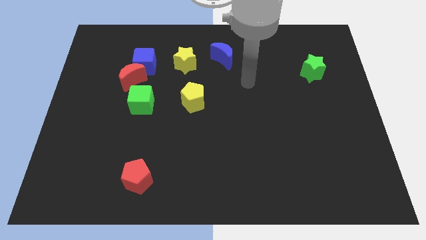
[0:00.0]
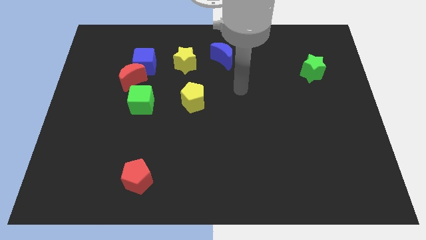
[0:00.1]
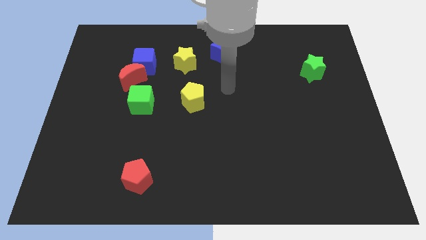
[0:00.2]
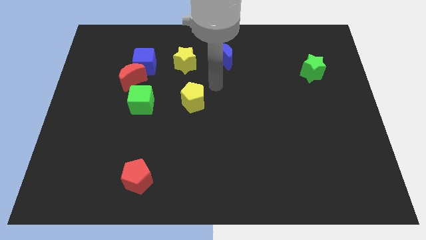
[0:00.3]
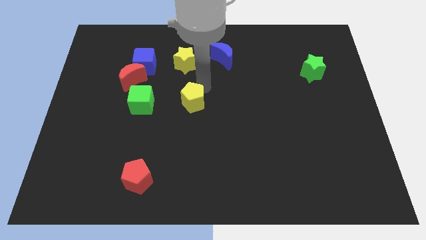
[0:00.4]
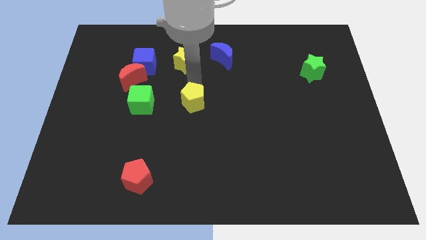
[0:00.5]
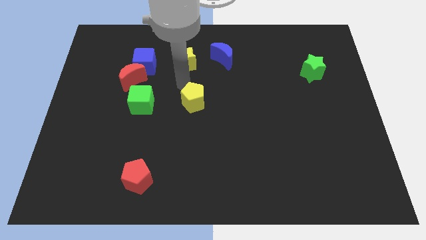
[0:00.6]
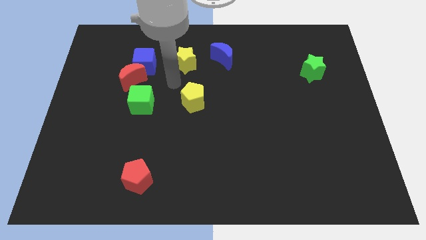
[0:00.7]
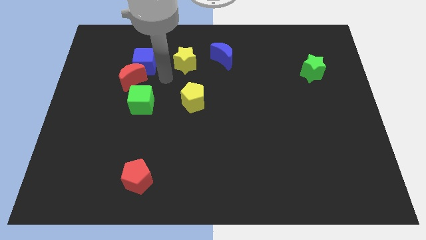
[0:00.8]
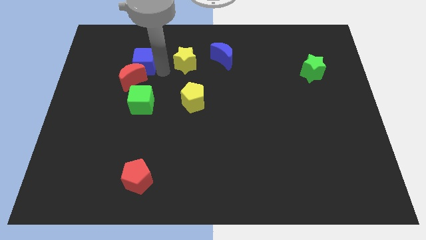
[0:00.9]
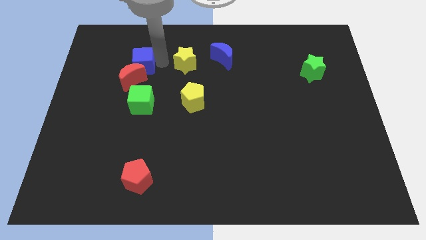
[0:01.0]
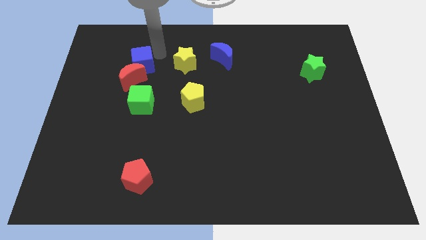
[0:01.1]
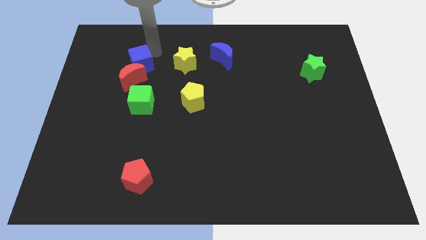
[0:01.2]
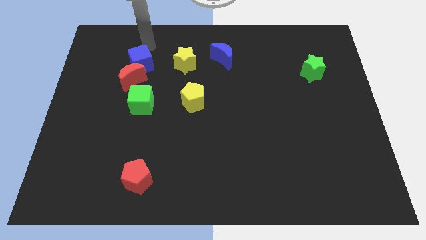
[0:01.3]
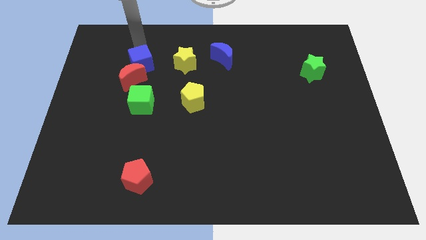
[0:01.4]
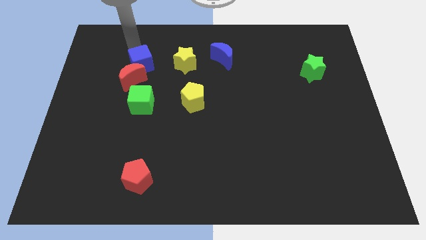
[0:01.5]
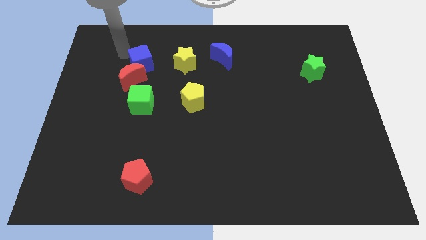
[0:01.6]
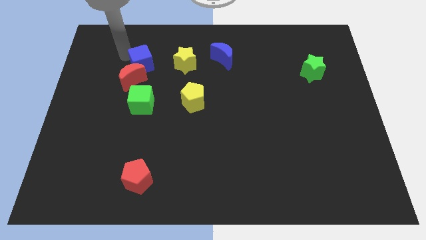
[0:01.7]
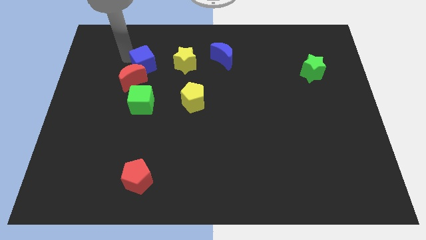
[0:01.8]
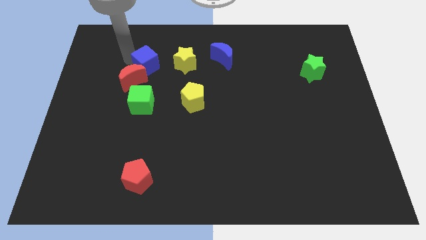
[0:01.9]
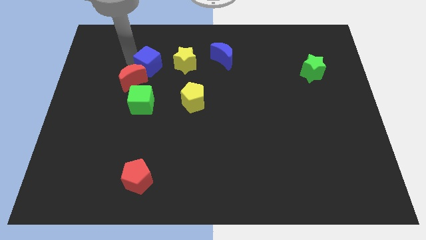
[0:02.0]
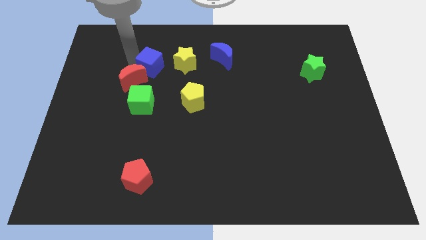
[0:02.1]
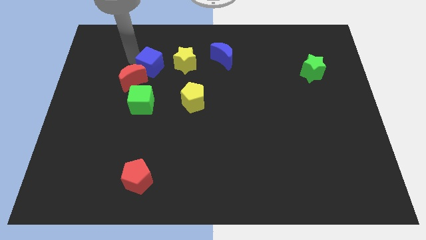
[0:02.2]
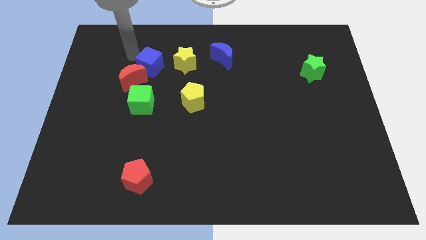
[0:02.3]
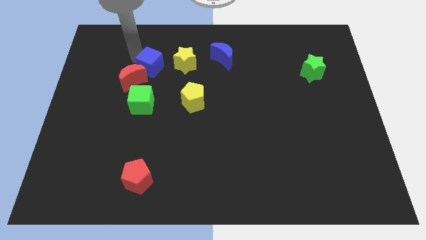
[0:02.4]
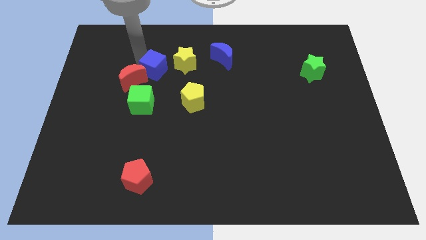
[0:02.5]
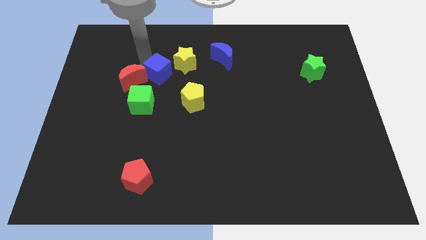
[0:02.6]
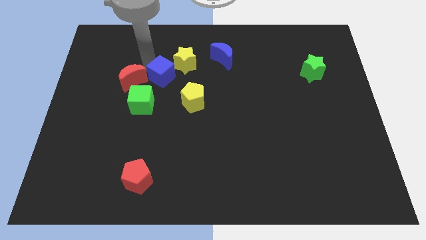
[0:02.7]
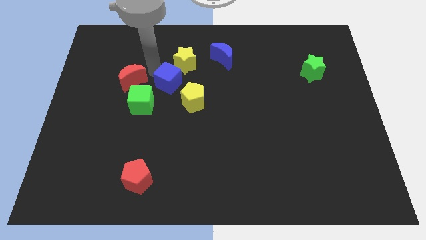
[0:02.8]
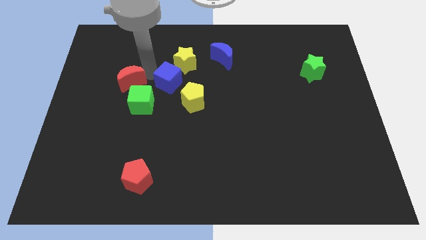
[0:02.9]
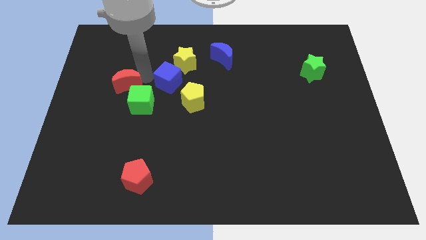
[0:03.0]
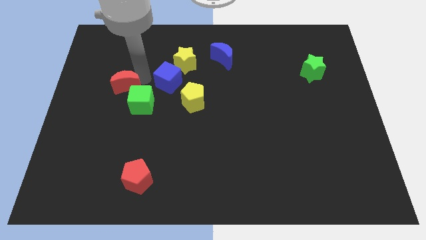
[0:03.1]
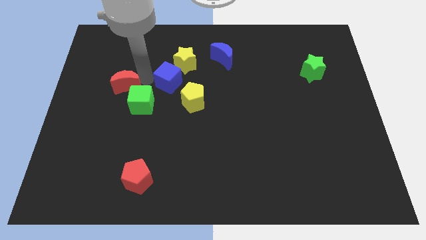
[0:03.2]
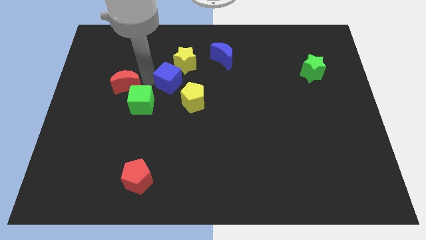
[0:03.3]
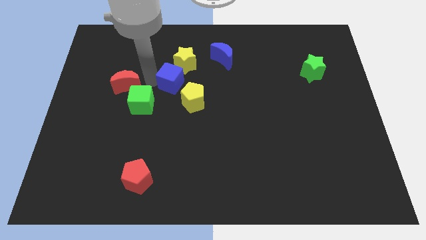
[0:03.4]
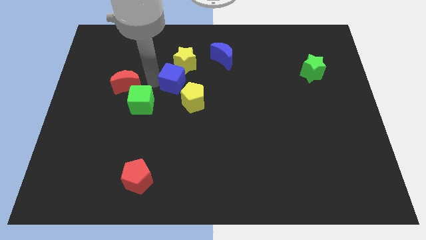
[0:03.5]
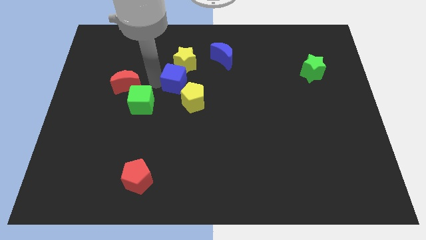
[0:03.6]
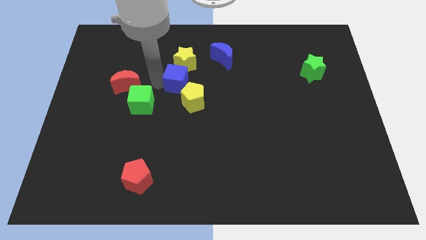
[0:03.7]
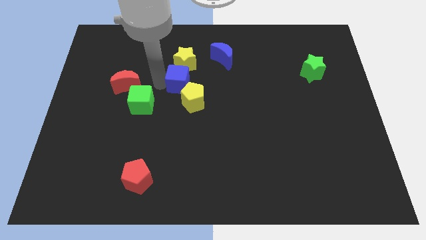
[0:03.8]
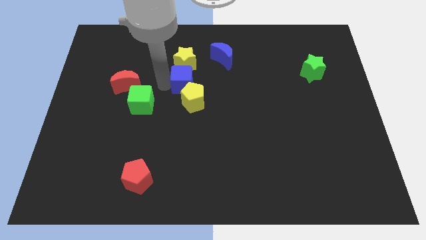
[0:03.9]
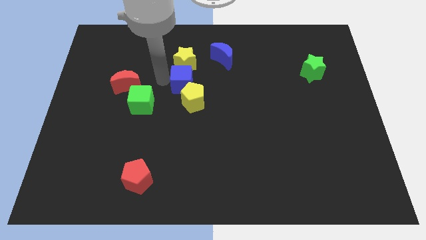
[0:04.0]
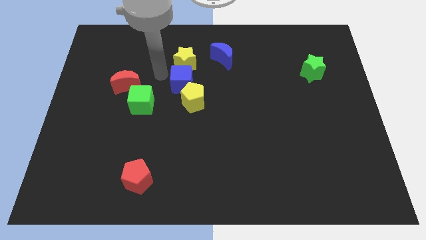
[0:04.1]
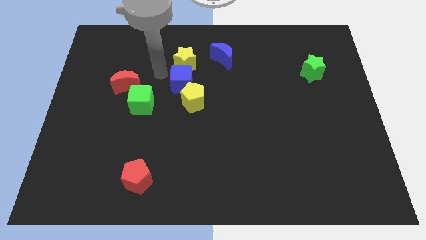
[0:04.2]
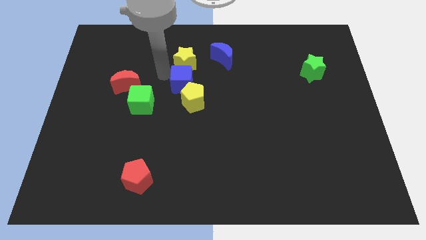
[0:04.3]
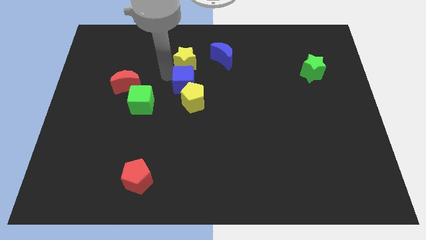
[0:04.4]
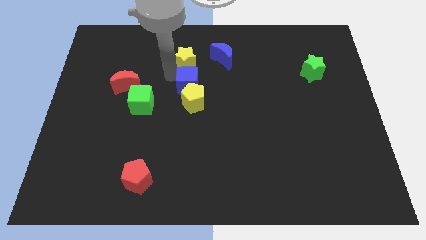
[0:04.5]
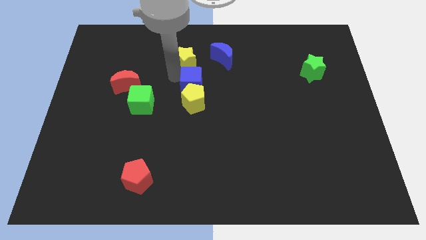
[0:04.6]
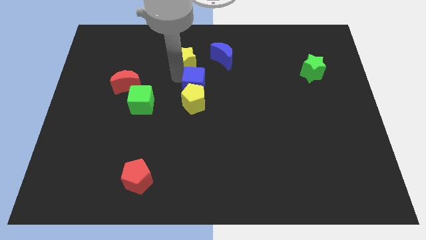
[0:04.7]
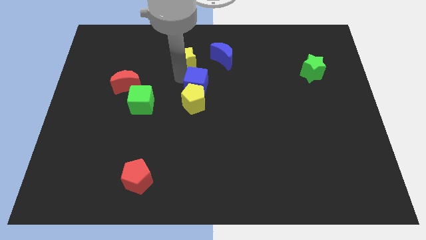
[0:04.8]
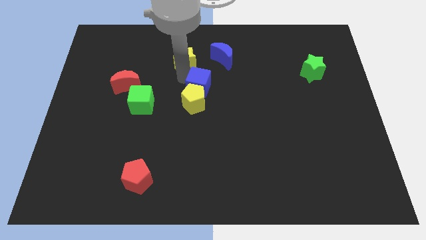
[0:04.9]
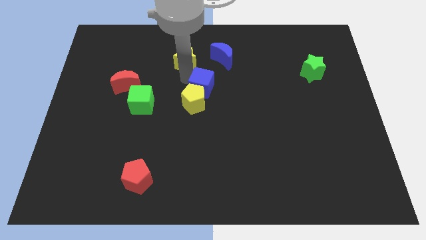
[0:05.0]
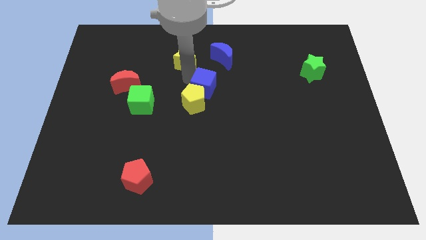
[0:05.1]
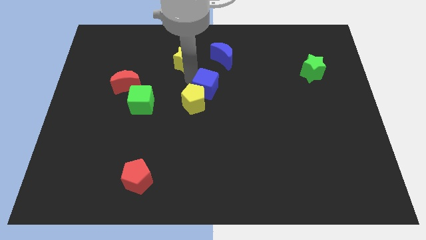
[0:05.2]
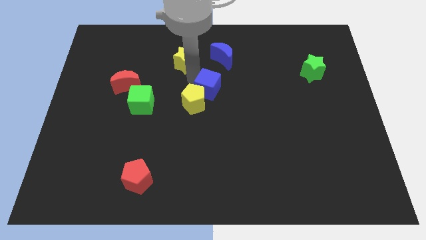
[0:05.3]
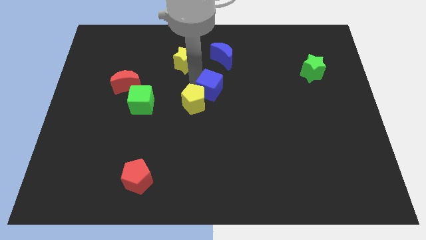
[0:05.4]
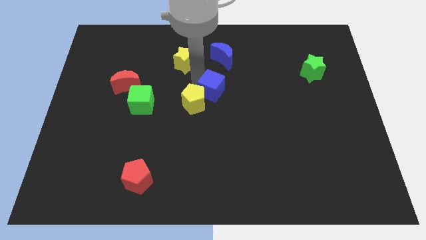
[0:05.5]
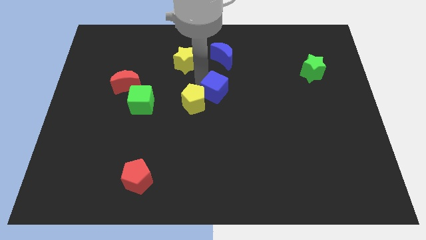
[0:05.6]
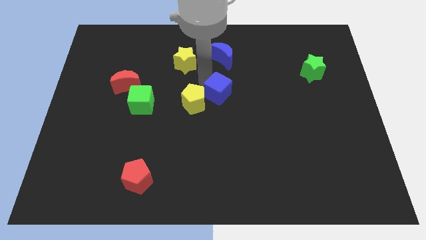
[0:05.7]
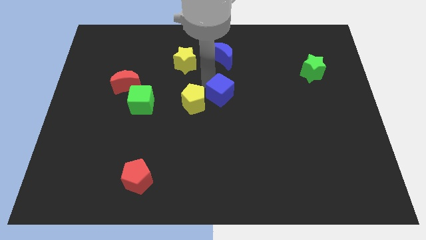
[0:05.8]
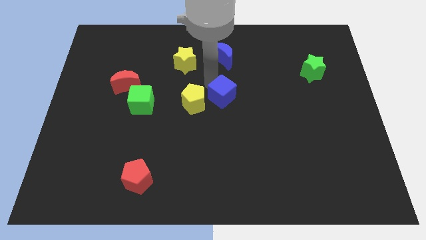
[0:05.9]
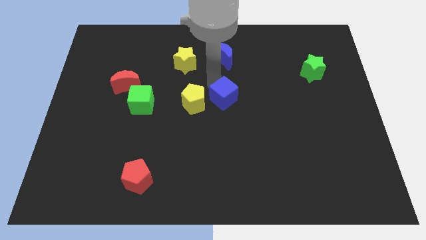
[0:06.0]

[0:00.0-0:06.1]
push the blue cube downwards and to the right diagonally

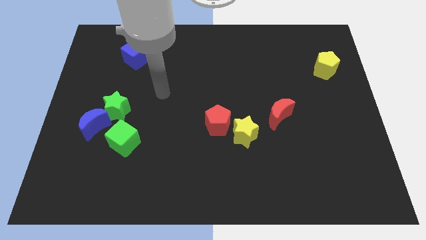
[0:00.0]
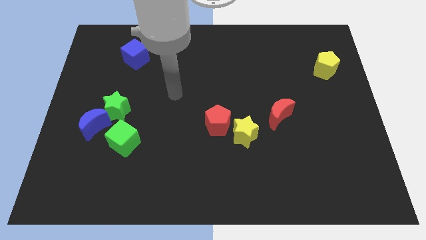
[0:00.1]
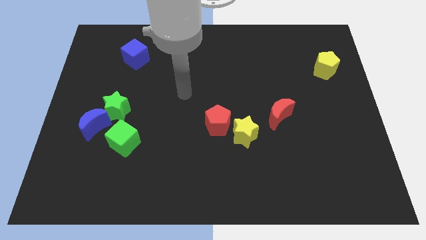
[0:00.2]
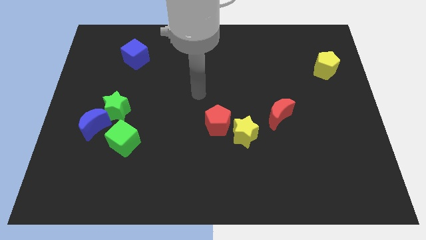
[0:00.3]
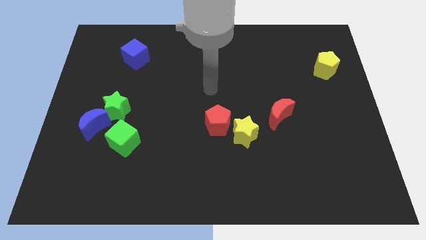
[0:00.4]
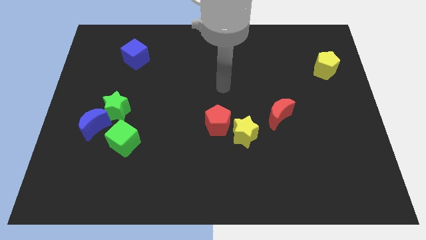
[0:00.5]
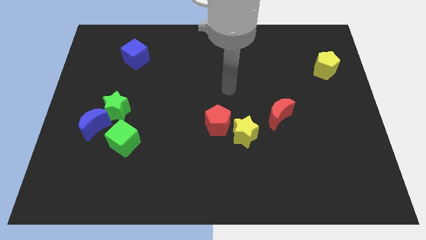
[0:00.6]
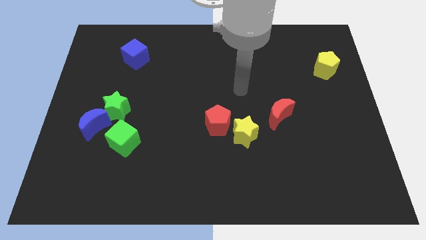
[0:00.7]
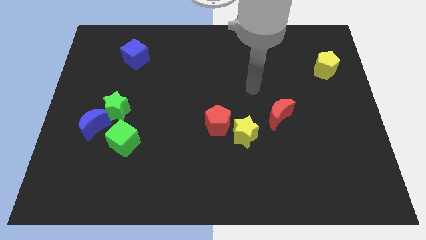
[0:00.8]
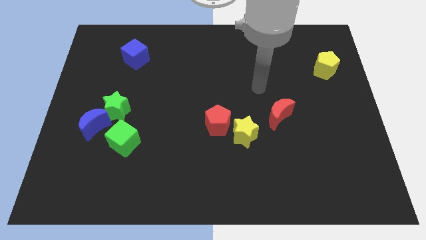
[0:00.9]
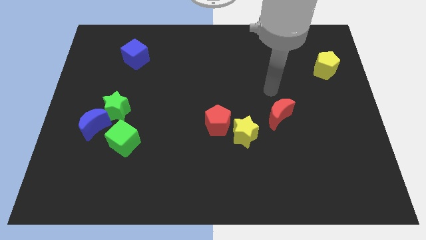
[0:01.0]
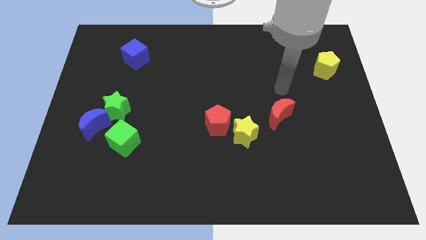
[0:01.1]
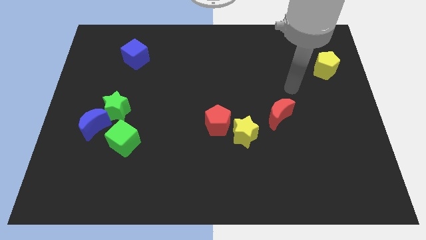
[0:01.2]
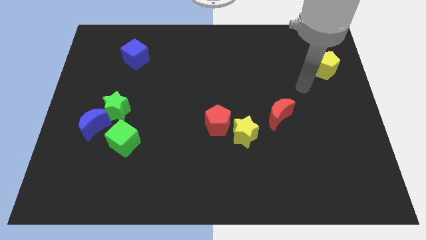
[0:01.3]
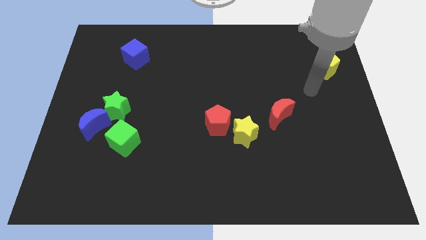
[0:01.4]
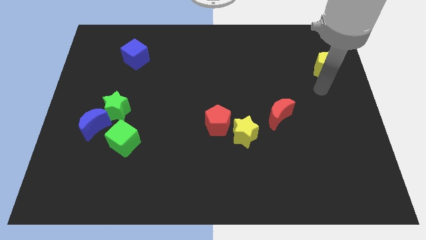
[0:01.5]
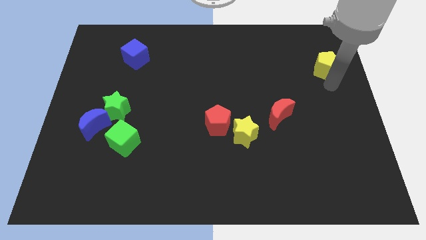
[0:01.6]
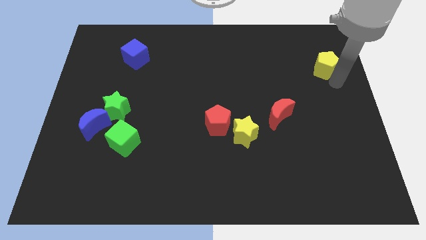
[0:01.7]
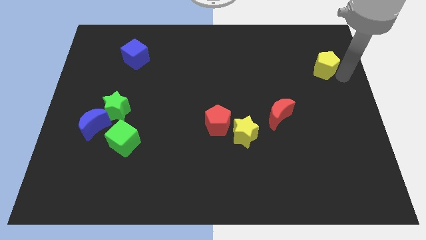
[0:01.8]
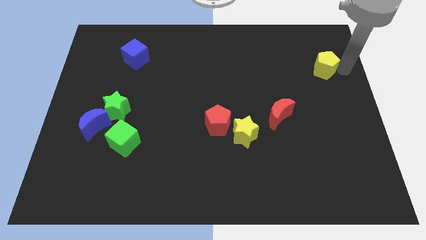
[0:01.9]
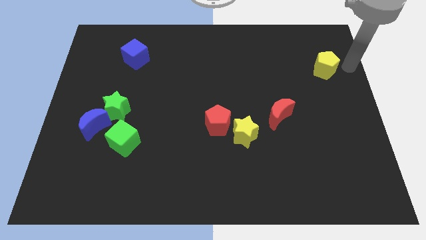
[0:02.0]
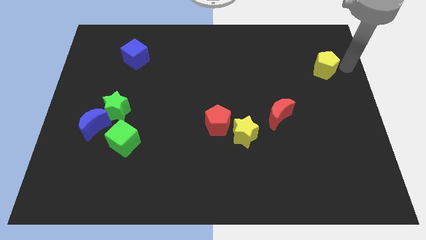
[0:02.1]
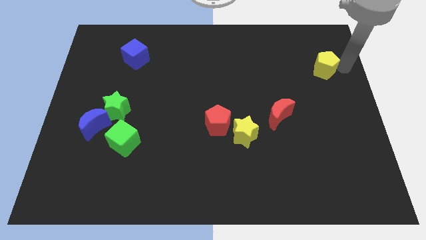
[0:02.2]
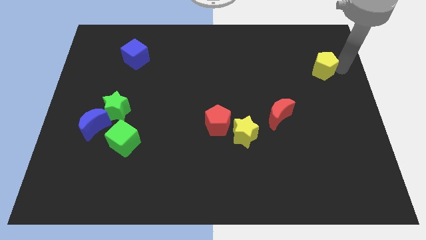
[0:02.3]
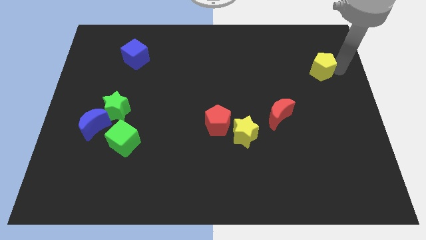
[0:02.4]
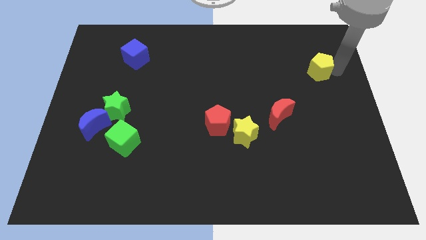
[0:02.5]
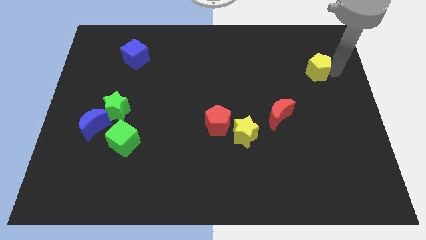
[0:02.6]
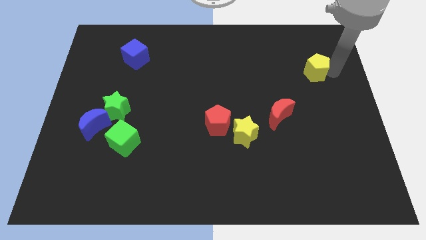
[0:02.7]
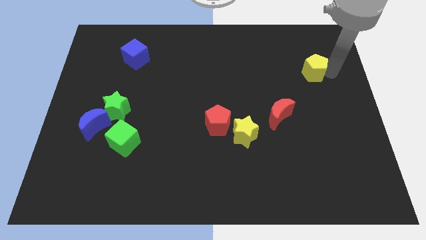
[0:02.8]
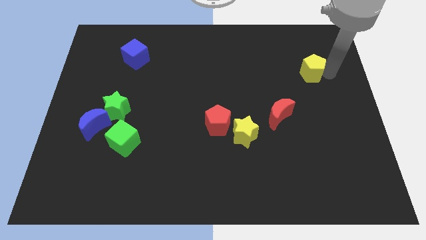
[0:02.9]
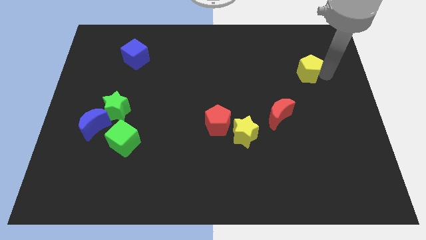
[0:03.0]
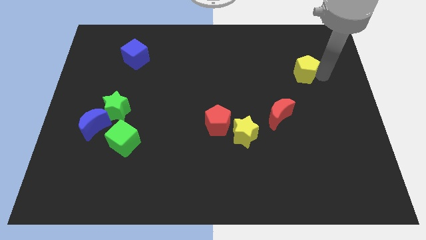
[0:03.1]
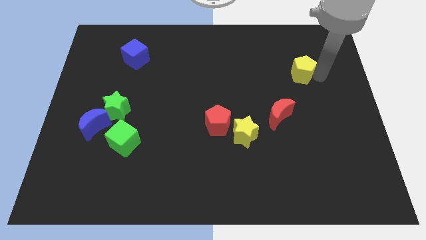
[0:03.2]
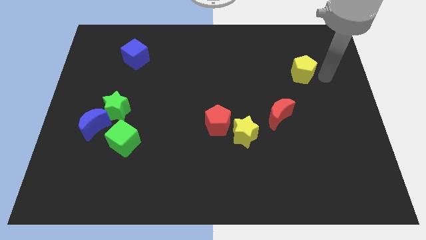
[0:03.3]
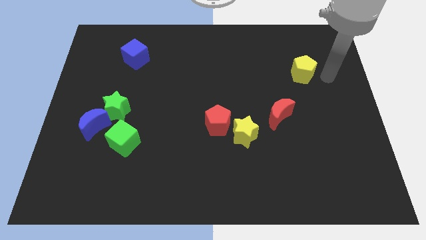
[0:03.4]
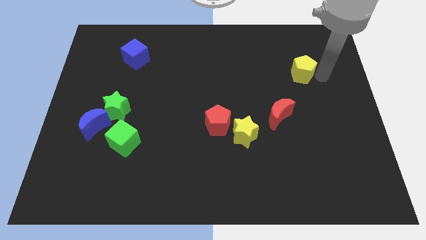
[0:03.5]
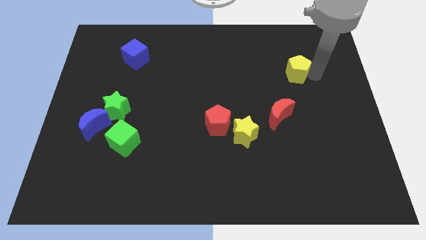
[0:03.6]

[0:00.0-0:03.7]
slide the yellow pentagon to the left a little bit
